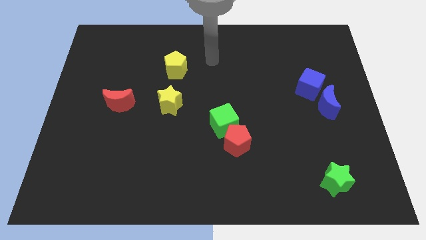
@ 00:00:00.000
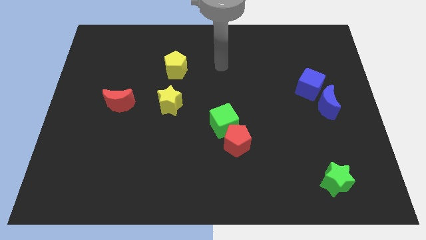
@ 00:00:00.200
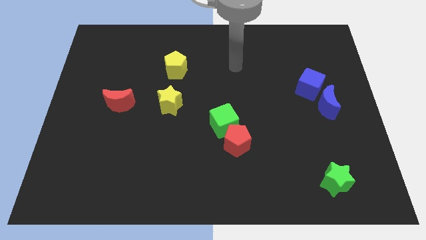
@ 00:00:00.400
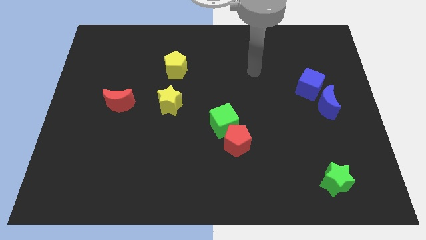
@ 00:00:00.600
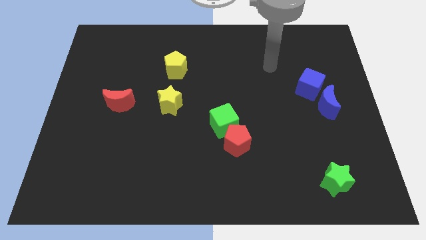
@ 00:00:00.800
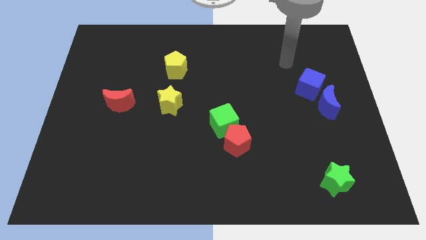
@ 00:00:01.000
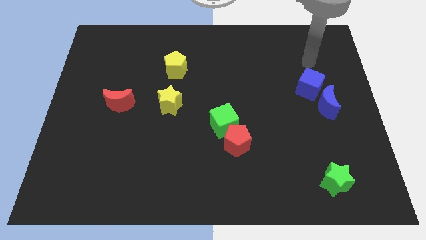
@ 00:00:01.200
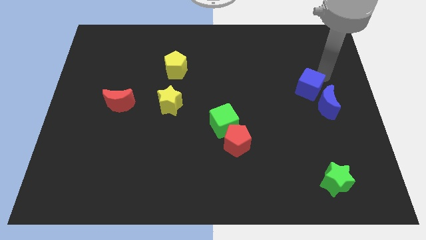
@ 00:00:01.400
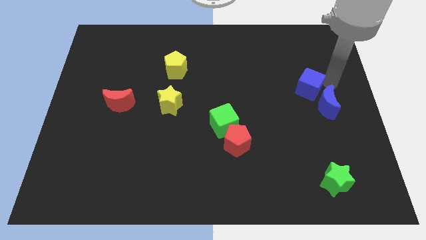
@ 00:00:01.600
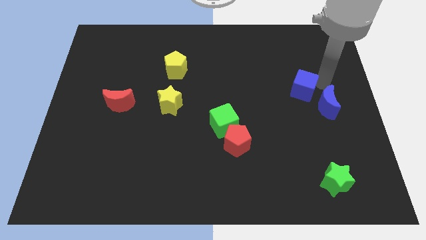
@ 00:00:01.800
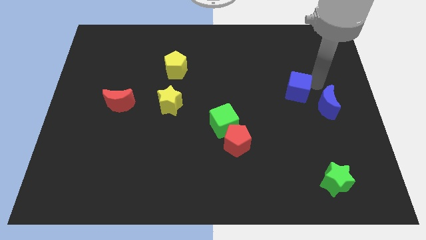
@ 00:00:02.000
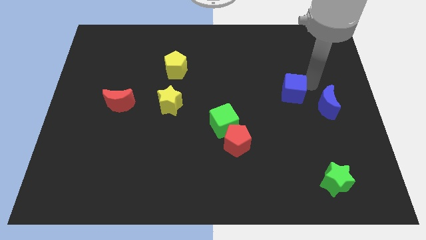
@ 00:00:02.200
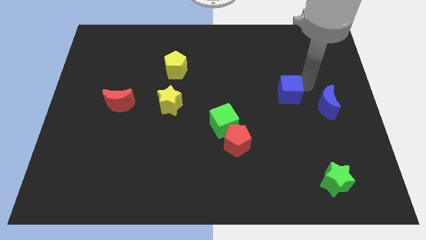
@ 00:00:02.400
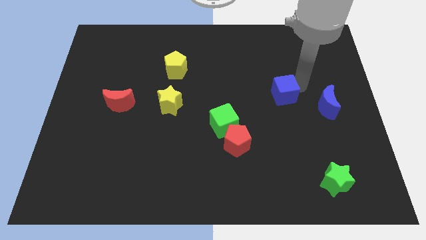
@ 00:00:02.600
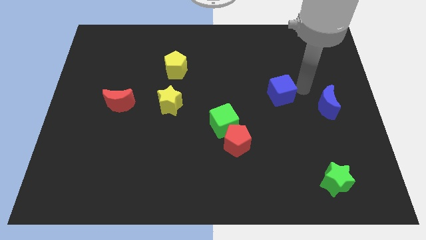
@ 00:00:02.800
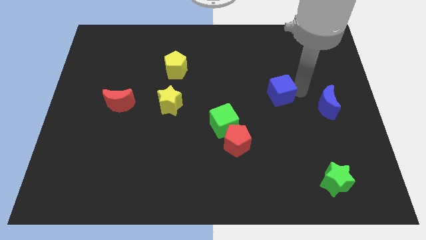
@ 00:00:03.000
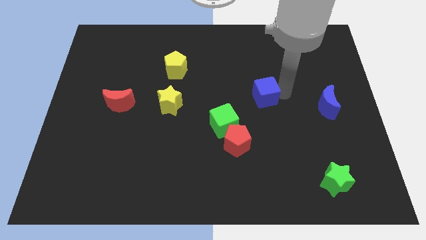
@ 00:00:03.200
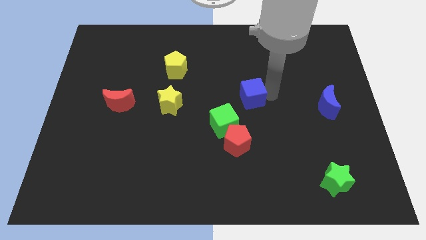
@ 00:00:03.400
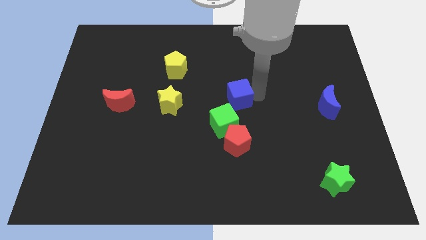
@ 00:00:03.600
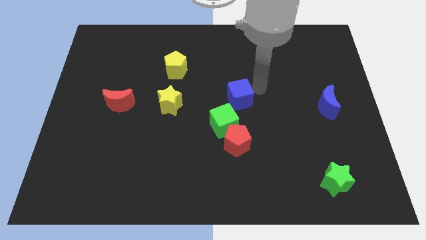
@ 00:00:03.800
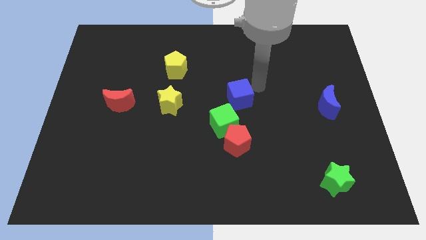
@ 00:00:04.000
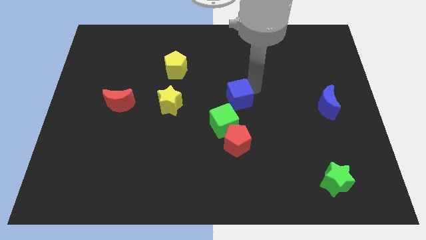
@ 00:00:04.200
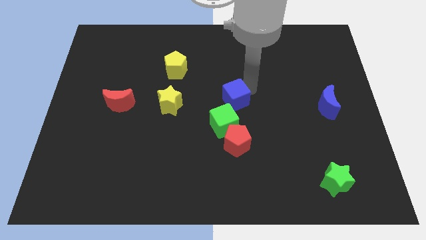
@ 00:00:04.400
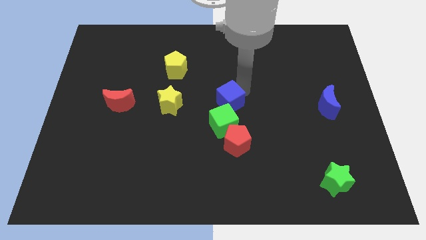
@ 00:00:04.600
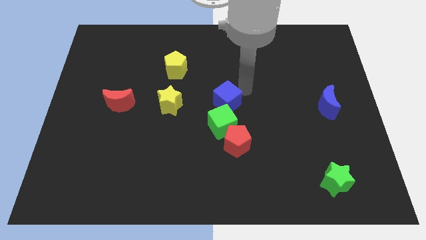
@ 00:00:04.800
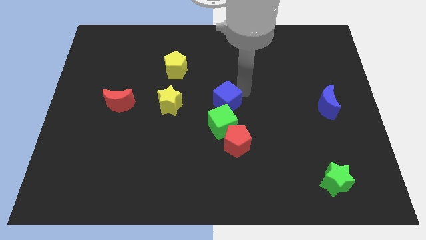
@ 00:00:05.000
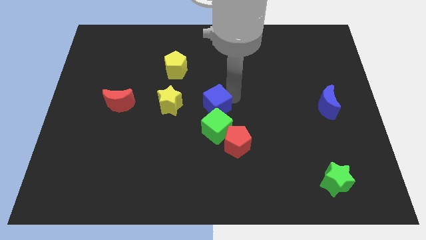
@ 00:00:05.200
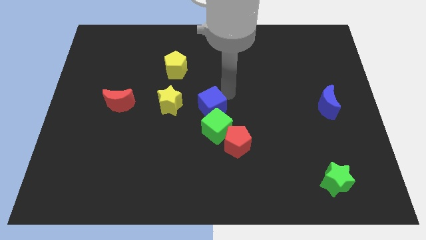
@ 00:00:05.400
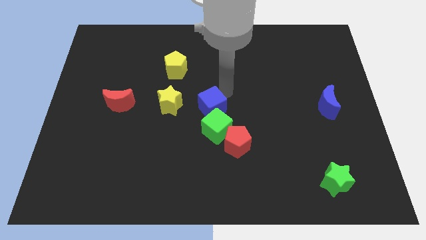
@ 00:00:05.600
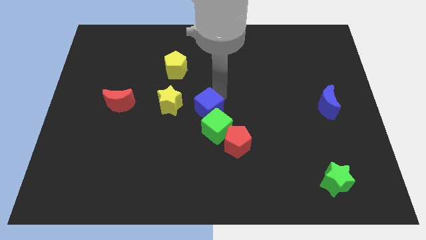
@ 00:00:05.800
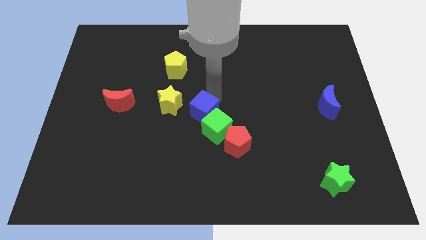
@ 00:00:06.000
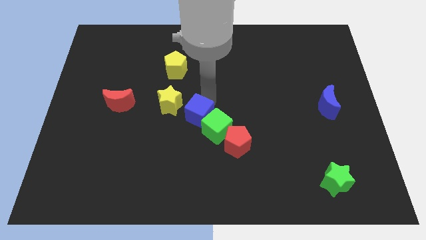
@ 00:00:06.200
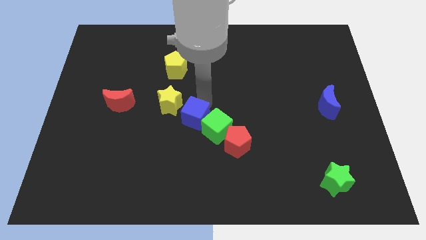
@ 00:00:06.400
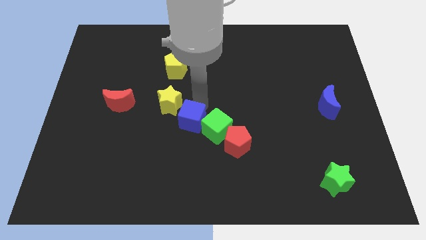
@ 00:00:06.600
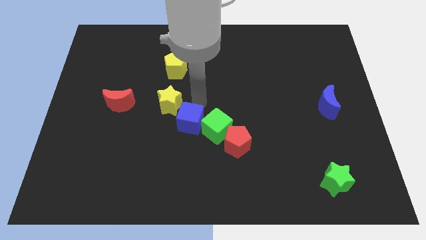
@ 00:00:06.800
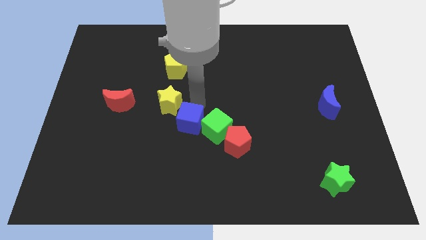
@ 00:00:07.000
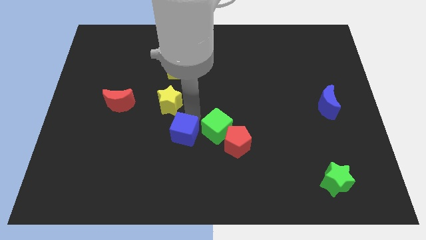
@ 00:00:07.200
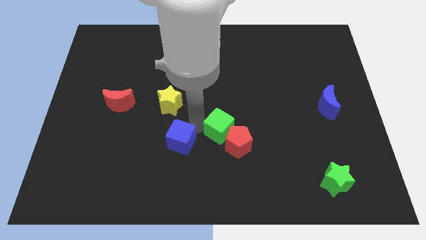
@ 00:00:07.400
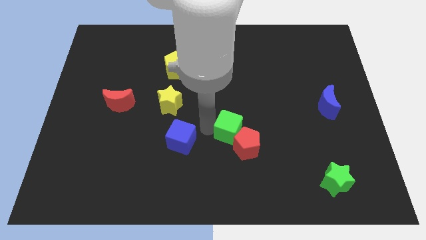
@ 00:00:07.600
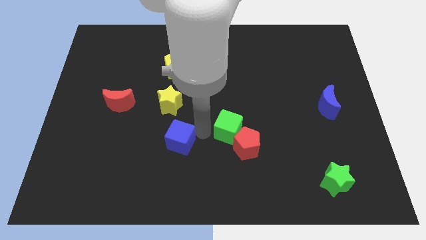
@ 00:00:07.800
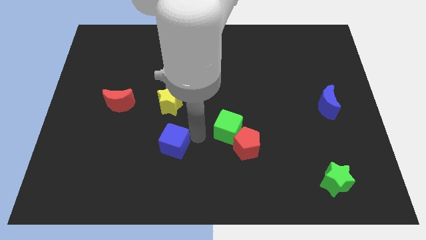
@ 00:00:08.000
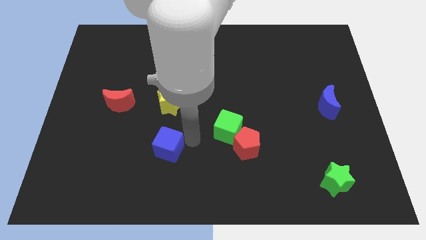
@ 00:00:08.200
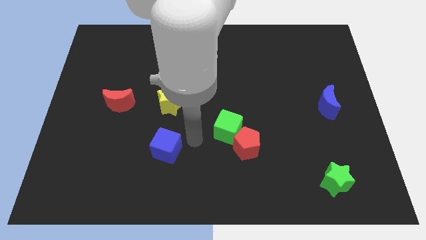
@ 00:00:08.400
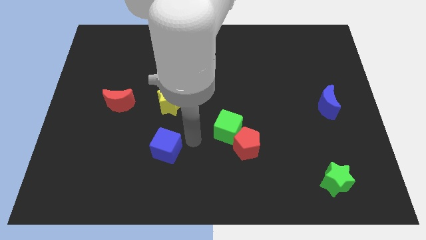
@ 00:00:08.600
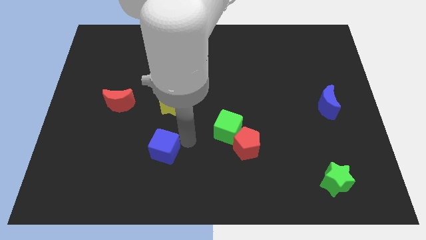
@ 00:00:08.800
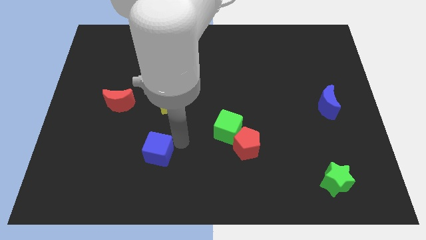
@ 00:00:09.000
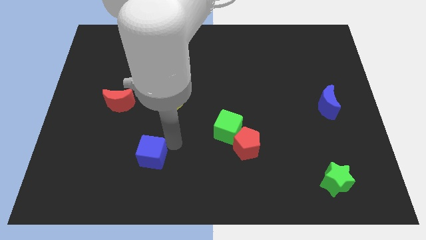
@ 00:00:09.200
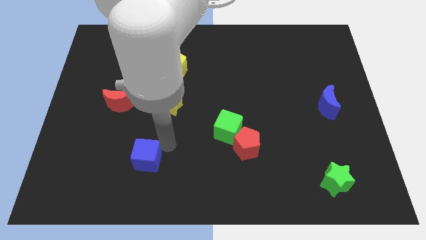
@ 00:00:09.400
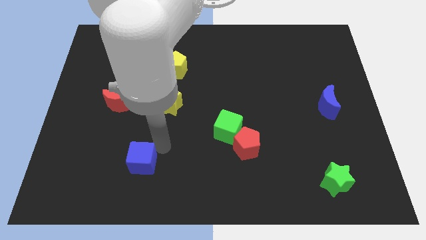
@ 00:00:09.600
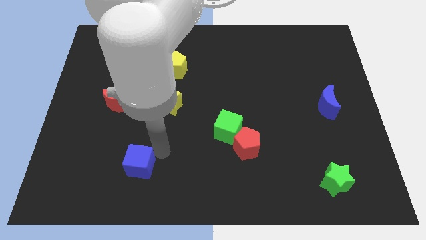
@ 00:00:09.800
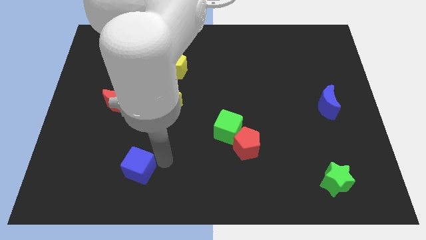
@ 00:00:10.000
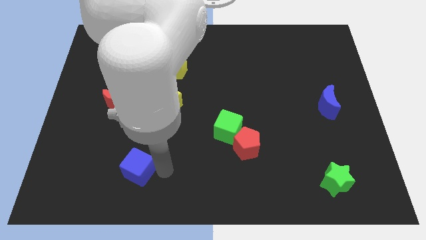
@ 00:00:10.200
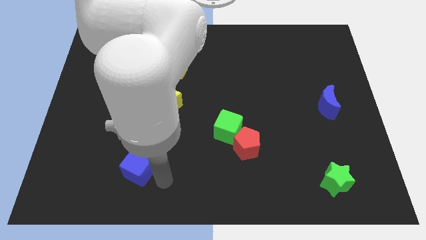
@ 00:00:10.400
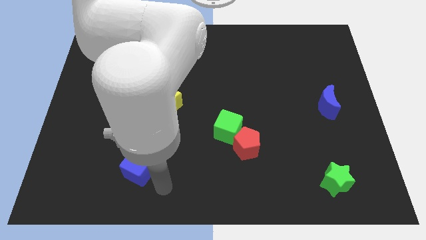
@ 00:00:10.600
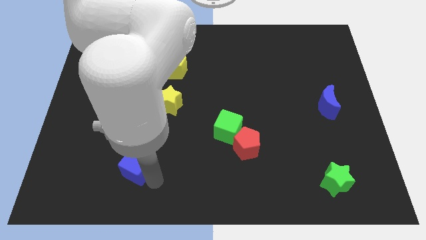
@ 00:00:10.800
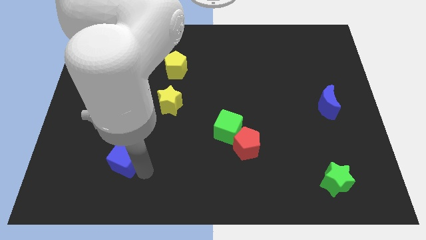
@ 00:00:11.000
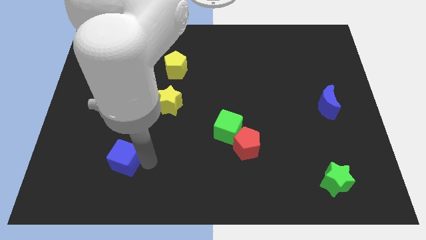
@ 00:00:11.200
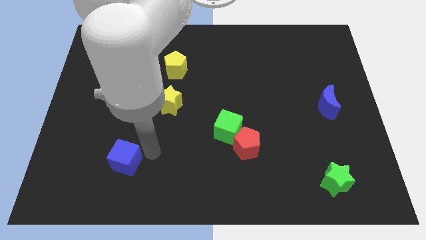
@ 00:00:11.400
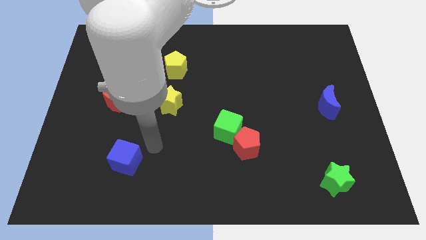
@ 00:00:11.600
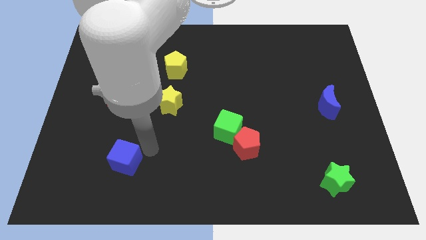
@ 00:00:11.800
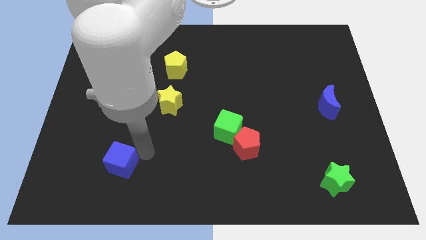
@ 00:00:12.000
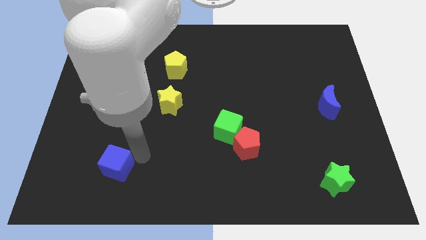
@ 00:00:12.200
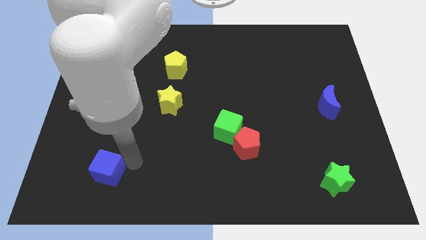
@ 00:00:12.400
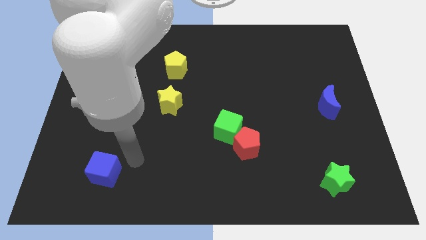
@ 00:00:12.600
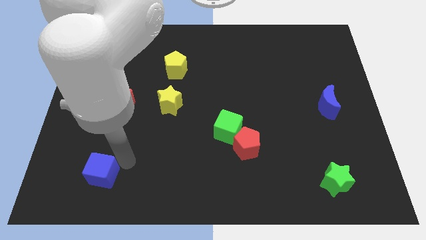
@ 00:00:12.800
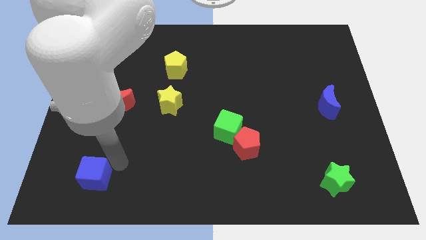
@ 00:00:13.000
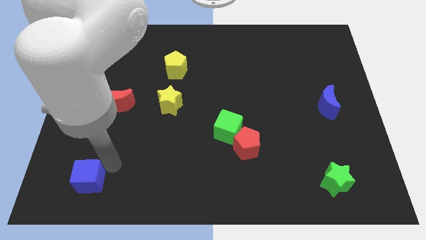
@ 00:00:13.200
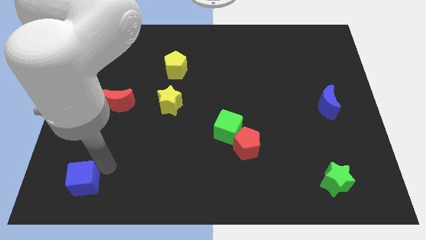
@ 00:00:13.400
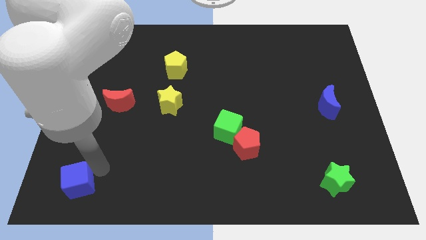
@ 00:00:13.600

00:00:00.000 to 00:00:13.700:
move the blue cube to the bottom left

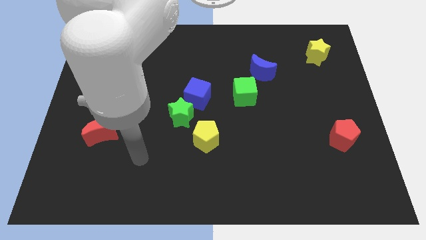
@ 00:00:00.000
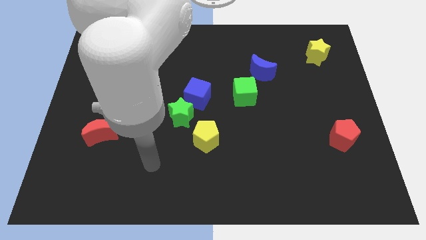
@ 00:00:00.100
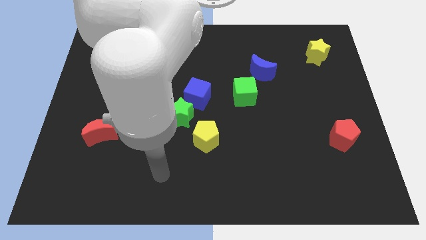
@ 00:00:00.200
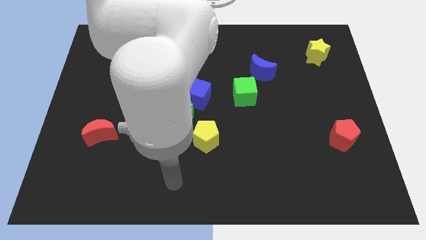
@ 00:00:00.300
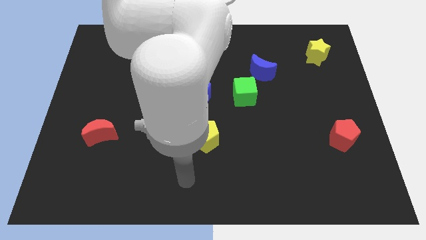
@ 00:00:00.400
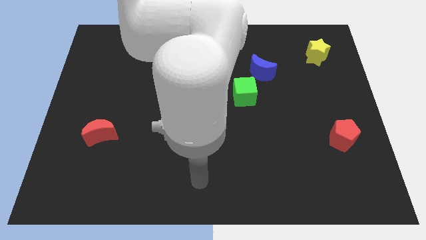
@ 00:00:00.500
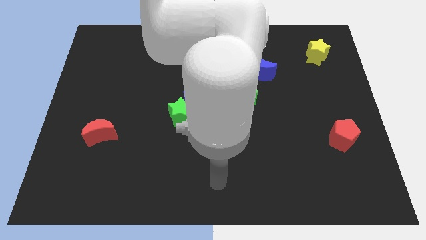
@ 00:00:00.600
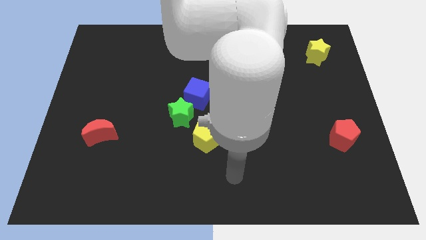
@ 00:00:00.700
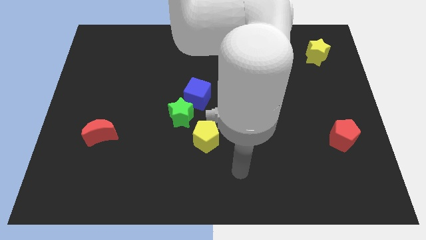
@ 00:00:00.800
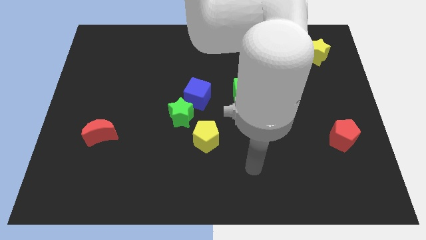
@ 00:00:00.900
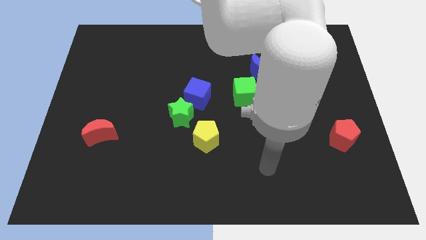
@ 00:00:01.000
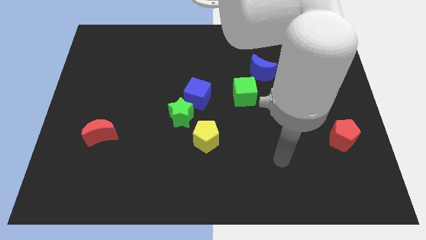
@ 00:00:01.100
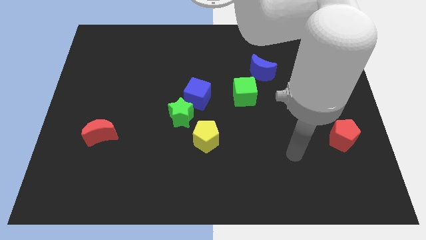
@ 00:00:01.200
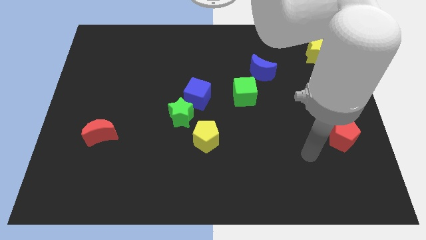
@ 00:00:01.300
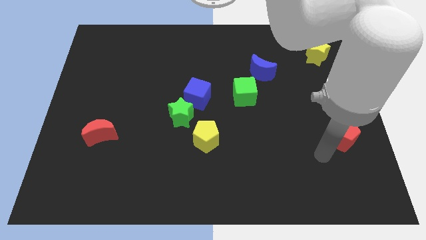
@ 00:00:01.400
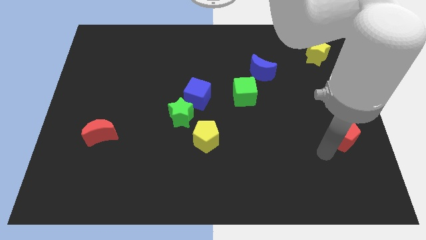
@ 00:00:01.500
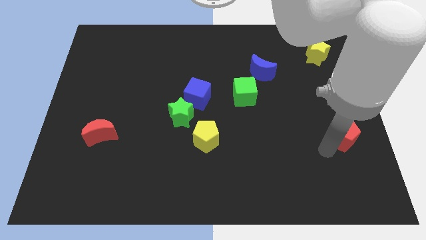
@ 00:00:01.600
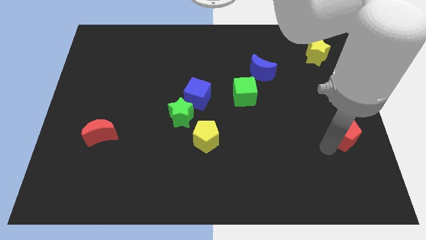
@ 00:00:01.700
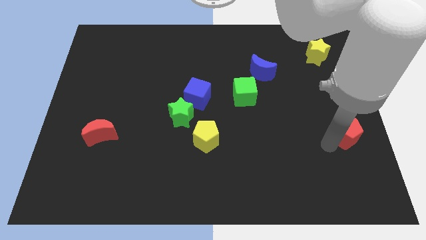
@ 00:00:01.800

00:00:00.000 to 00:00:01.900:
slide the red pentagon to the right side
